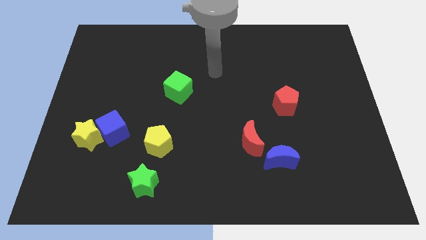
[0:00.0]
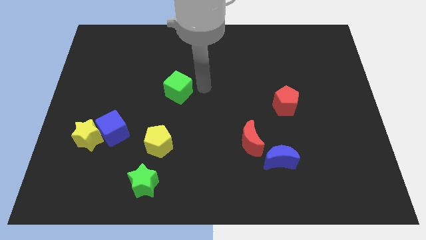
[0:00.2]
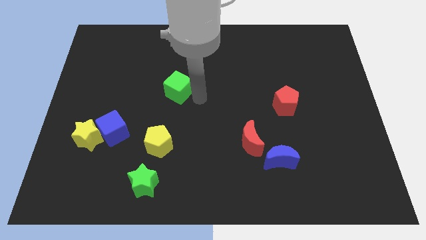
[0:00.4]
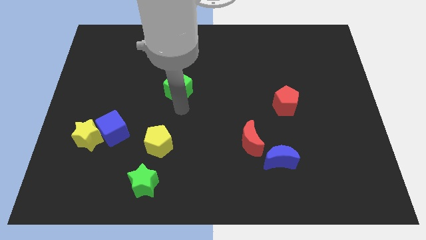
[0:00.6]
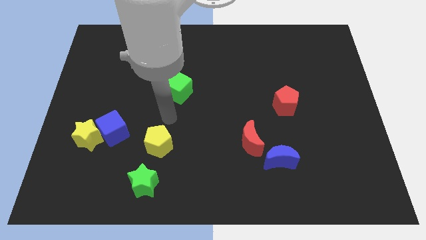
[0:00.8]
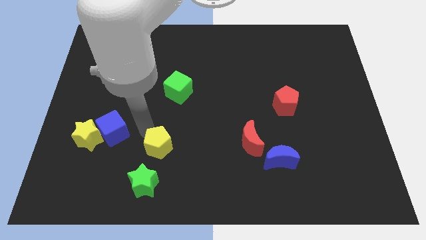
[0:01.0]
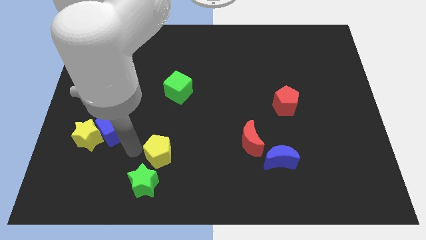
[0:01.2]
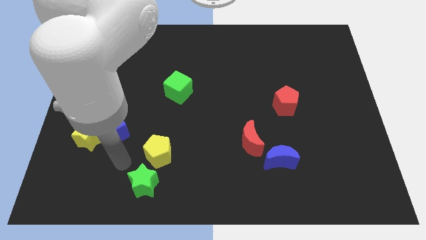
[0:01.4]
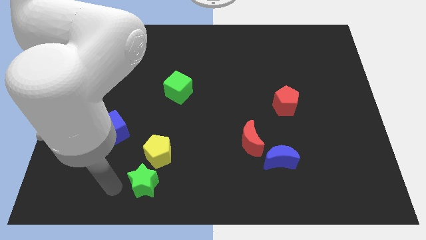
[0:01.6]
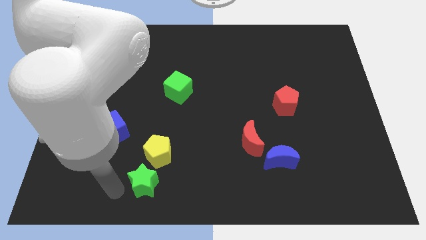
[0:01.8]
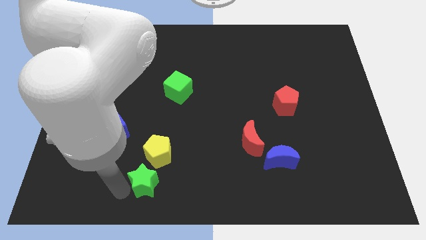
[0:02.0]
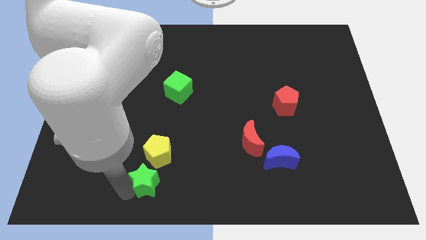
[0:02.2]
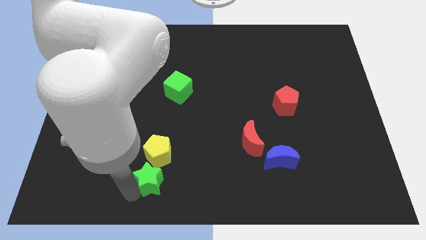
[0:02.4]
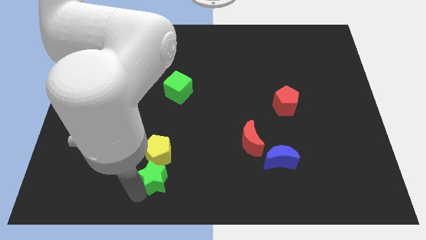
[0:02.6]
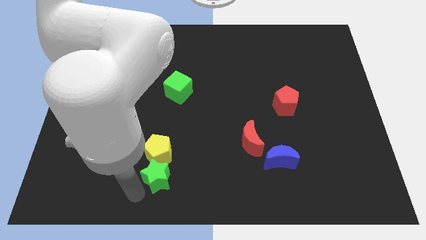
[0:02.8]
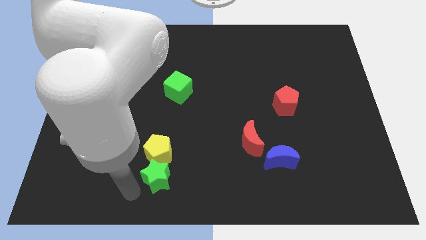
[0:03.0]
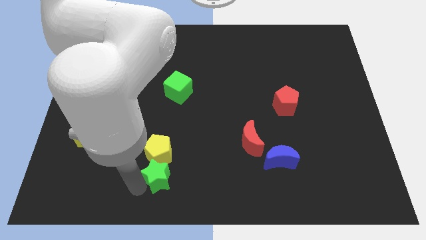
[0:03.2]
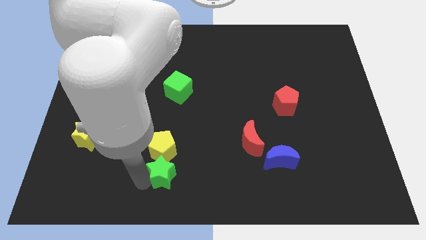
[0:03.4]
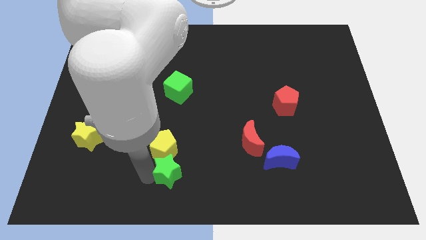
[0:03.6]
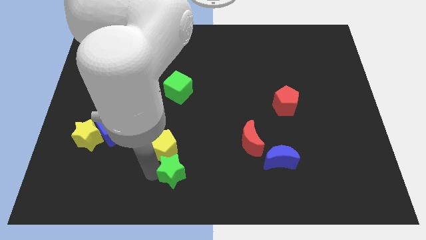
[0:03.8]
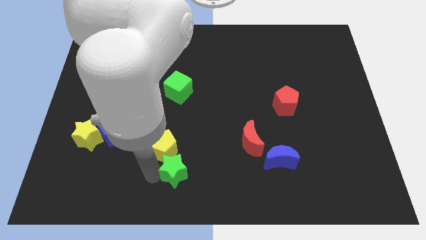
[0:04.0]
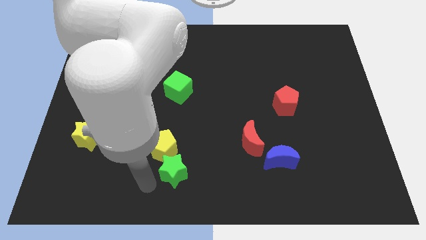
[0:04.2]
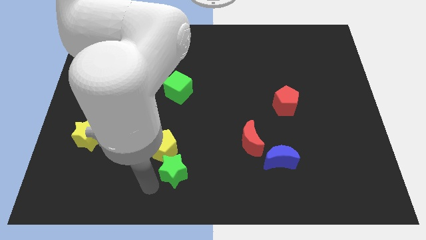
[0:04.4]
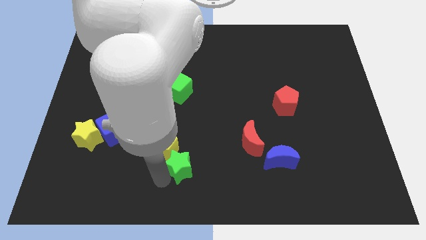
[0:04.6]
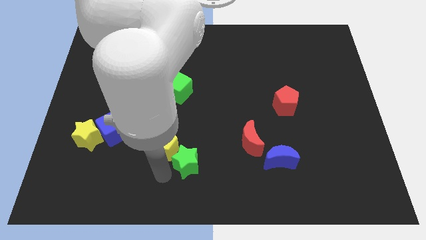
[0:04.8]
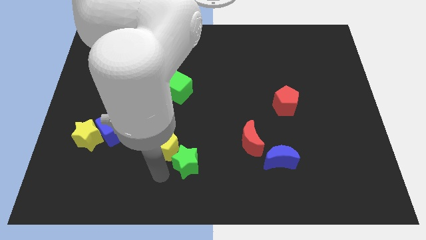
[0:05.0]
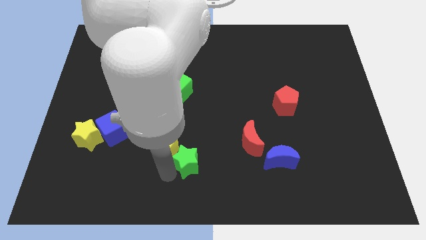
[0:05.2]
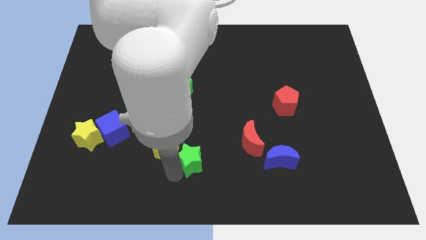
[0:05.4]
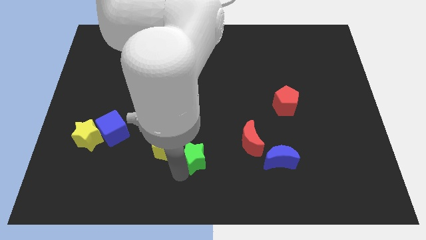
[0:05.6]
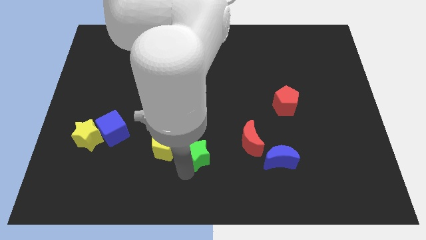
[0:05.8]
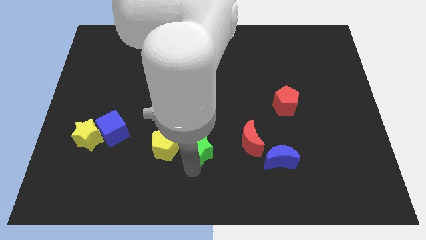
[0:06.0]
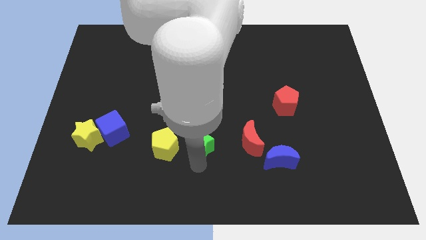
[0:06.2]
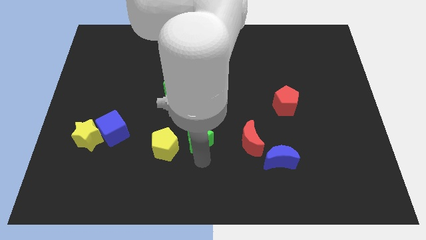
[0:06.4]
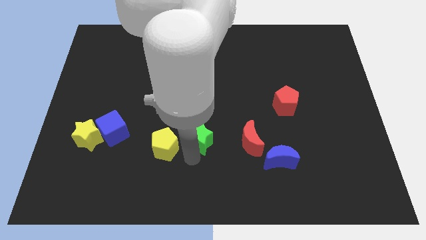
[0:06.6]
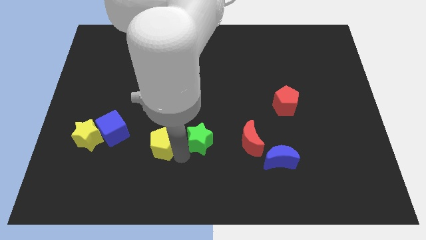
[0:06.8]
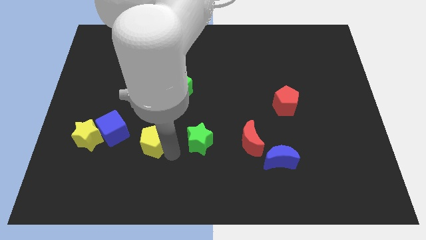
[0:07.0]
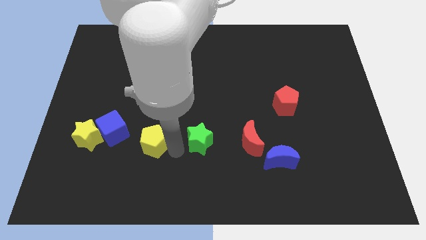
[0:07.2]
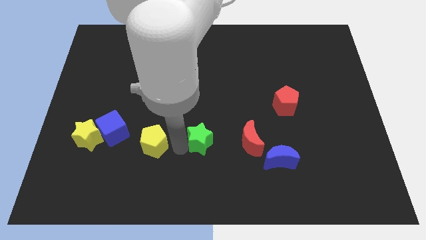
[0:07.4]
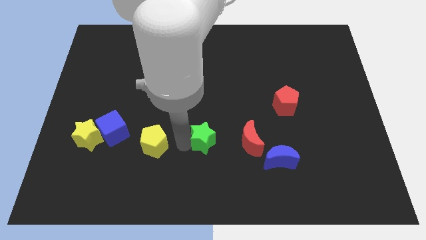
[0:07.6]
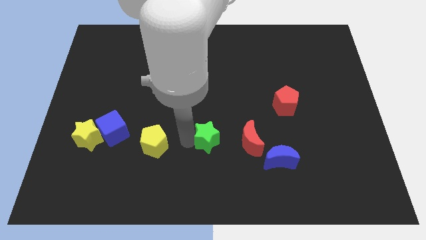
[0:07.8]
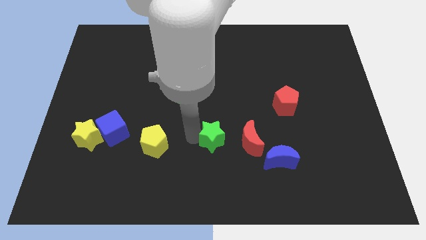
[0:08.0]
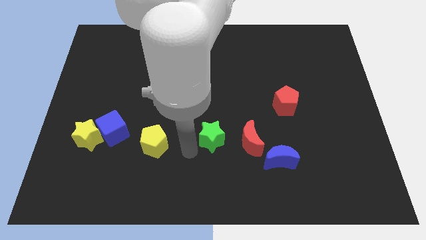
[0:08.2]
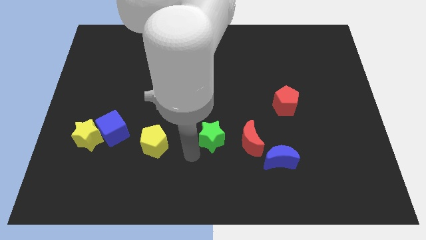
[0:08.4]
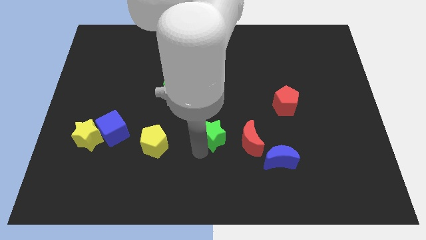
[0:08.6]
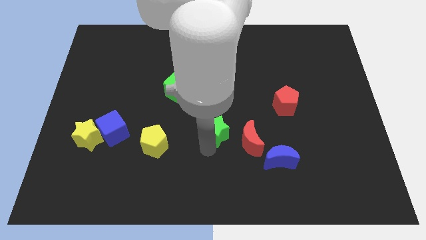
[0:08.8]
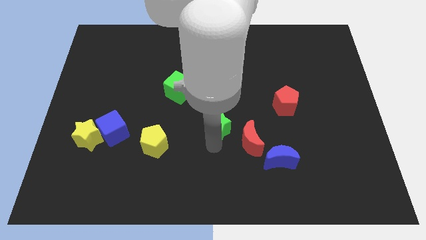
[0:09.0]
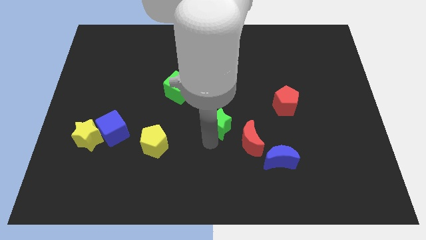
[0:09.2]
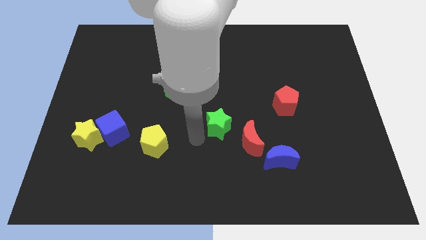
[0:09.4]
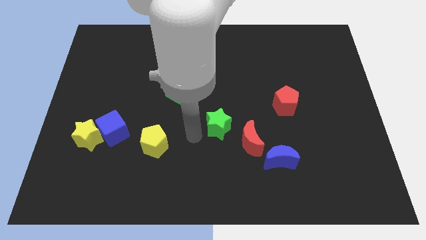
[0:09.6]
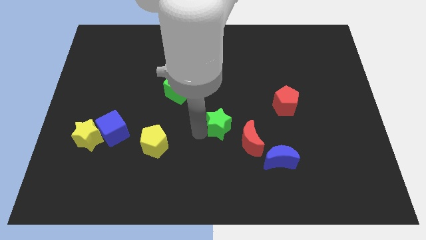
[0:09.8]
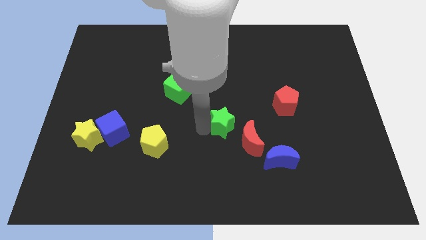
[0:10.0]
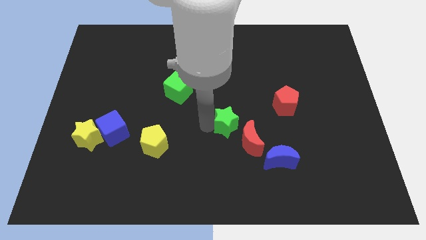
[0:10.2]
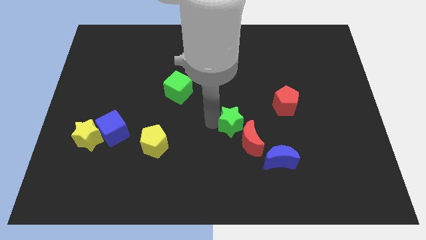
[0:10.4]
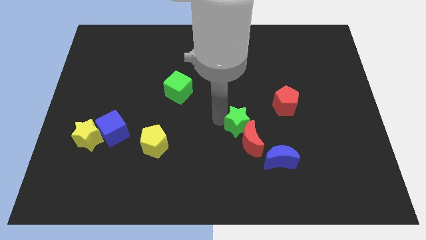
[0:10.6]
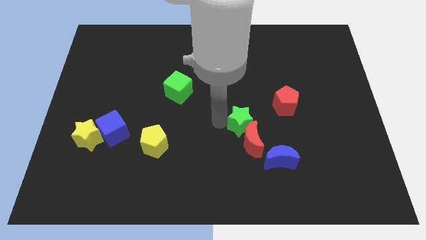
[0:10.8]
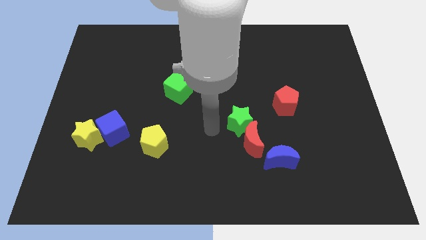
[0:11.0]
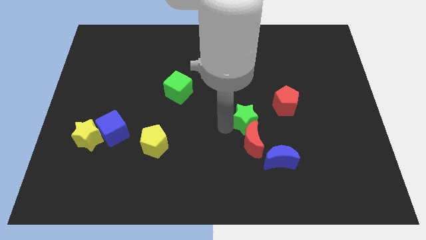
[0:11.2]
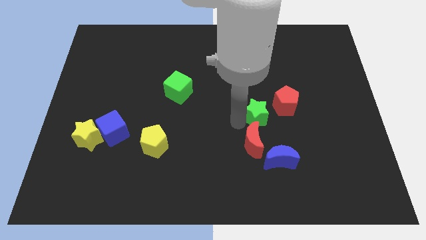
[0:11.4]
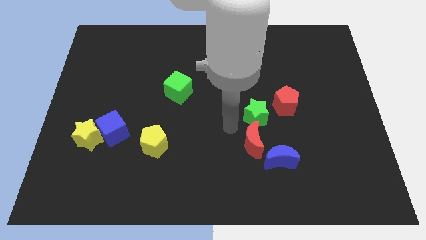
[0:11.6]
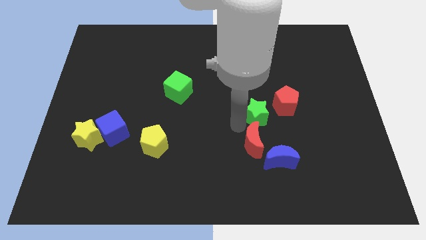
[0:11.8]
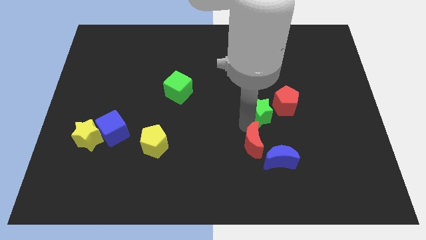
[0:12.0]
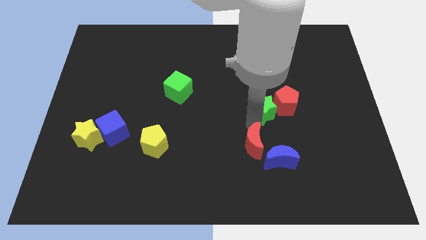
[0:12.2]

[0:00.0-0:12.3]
move the green star close to the red pentagon
